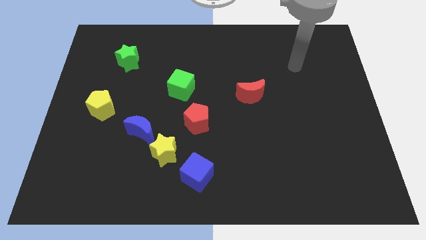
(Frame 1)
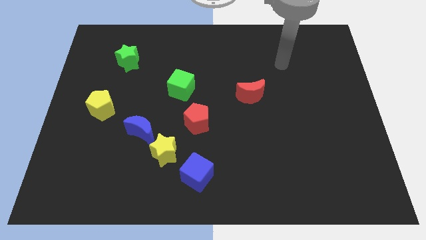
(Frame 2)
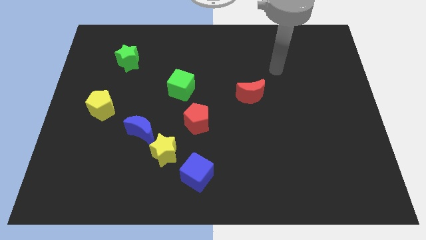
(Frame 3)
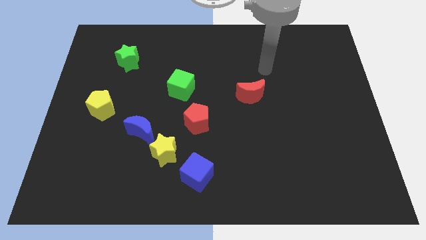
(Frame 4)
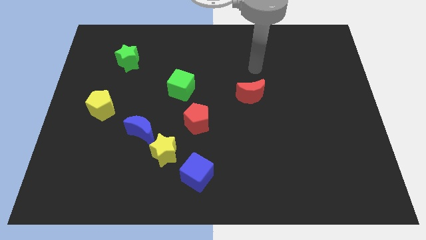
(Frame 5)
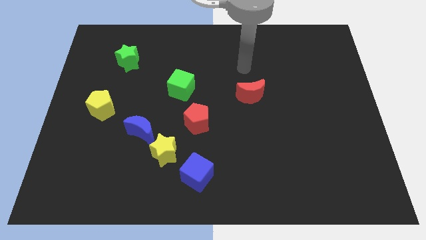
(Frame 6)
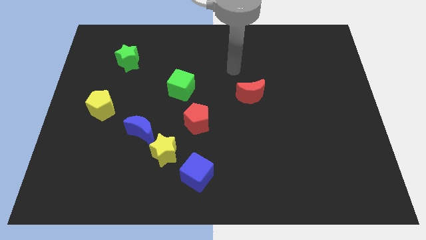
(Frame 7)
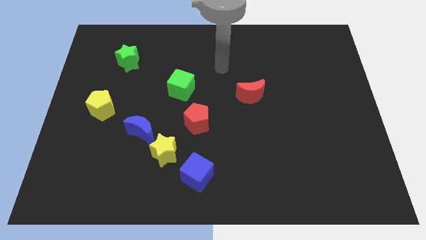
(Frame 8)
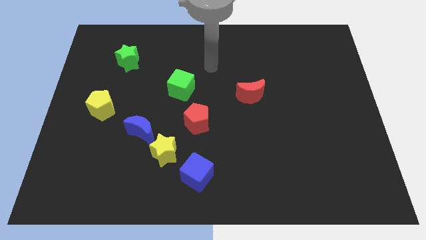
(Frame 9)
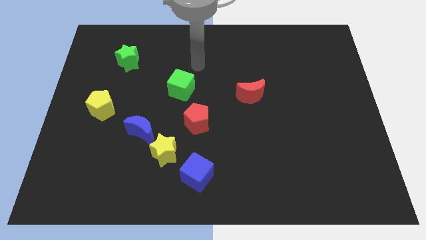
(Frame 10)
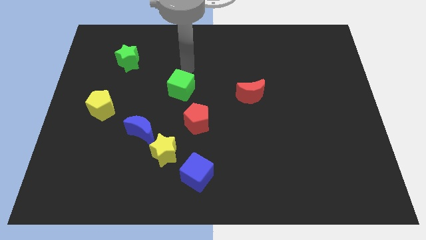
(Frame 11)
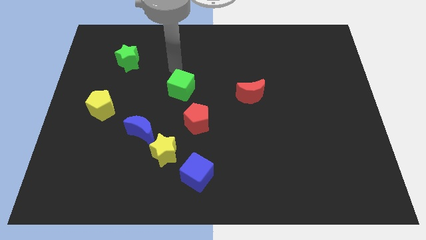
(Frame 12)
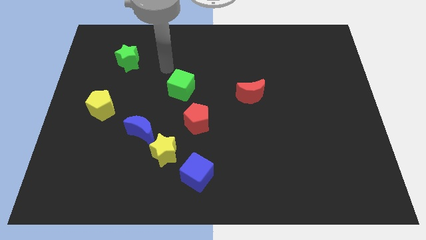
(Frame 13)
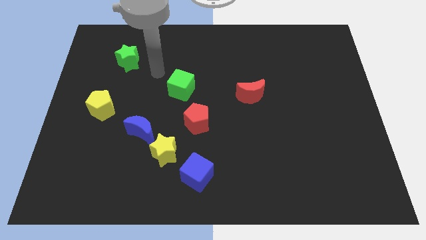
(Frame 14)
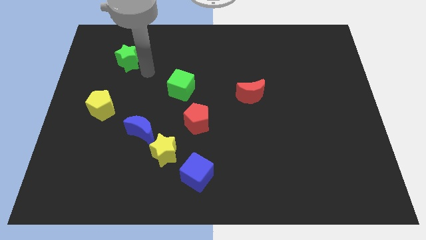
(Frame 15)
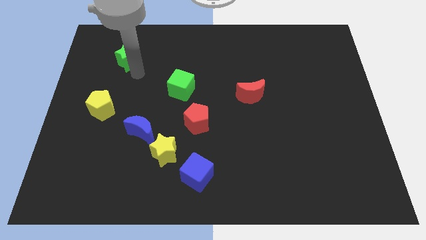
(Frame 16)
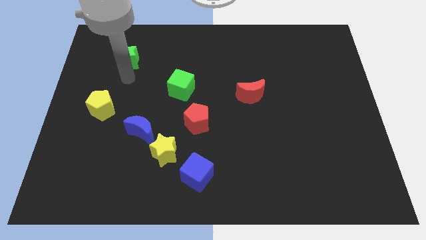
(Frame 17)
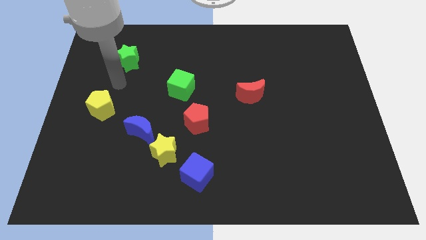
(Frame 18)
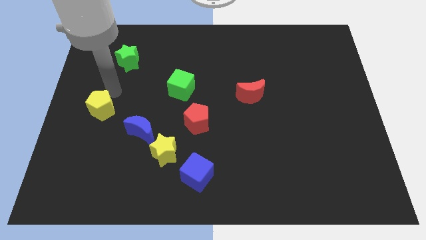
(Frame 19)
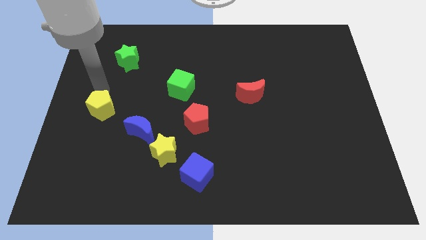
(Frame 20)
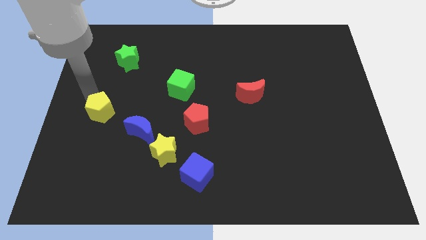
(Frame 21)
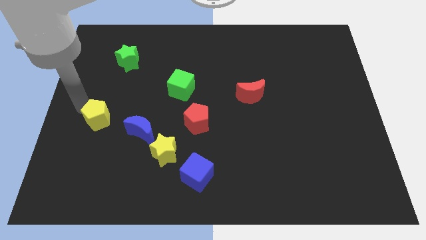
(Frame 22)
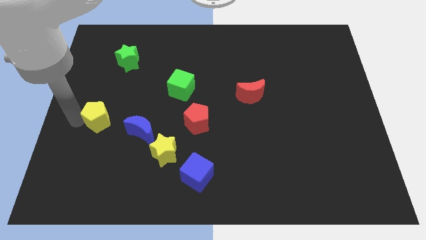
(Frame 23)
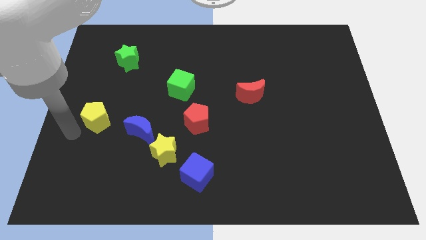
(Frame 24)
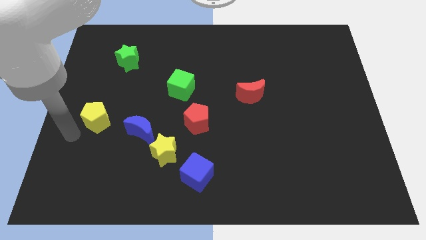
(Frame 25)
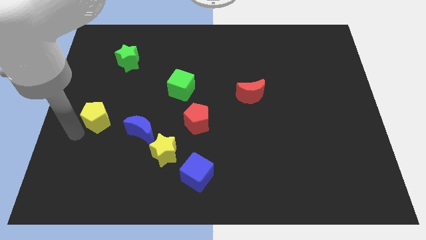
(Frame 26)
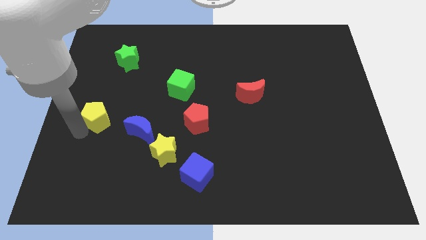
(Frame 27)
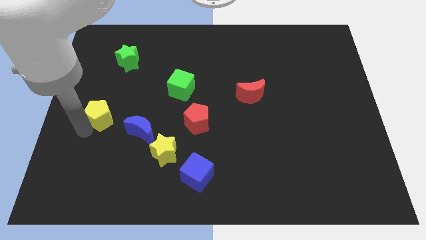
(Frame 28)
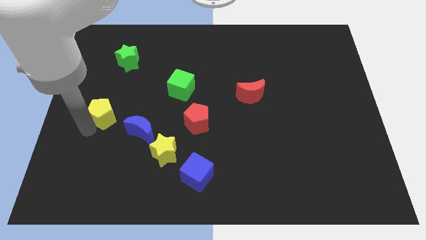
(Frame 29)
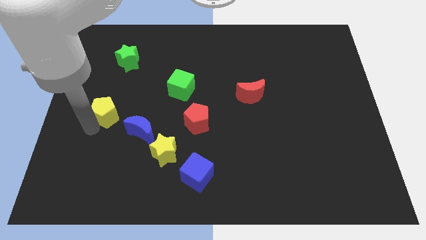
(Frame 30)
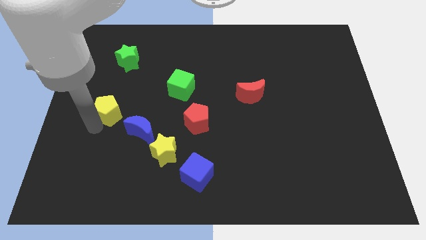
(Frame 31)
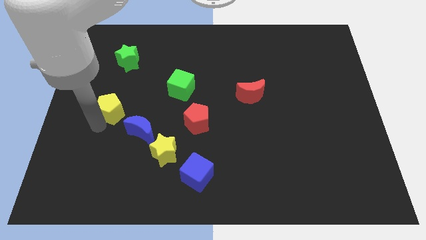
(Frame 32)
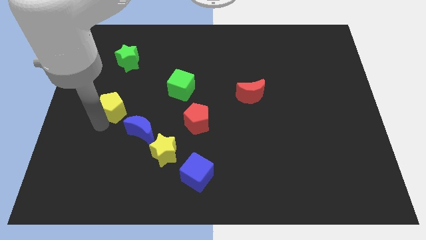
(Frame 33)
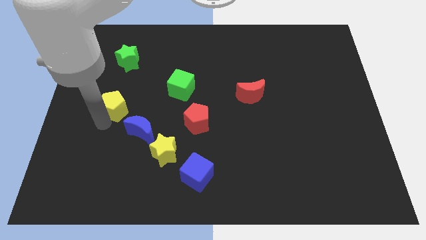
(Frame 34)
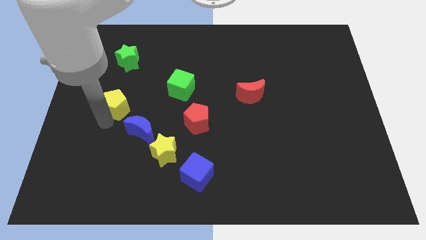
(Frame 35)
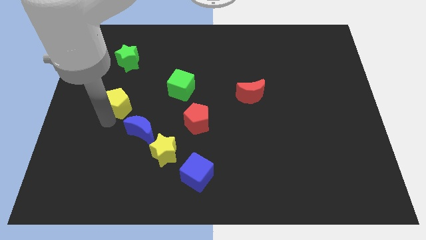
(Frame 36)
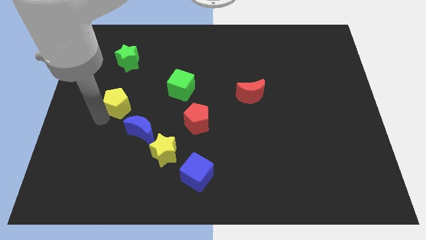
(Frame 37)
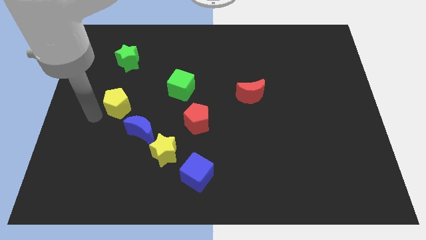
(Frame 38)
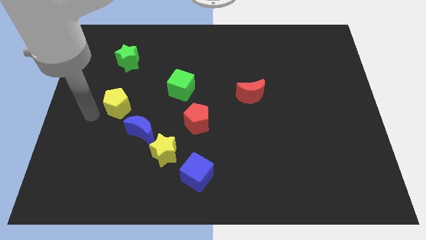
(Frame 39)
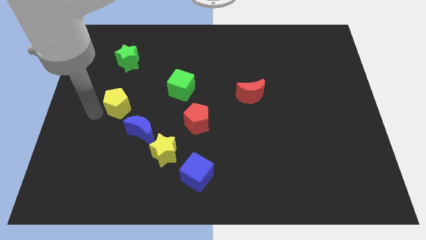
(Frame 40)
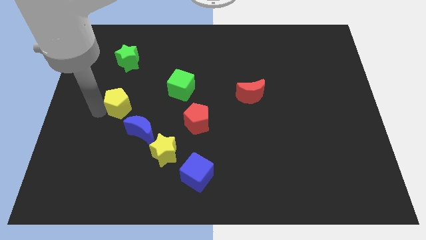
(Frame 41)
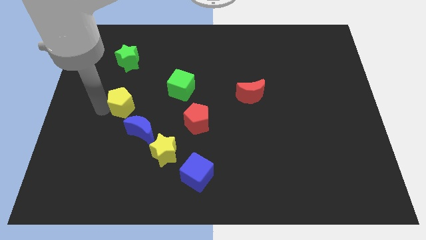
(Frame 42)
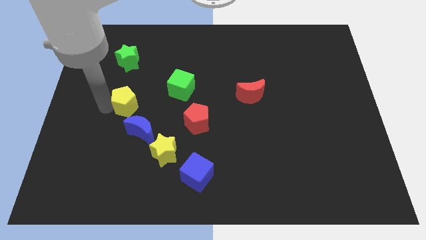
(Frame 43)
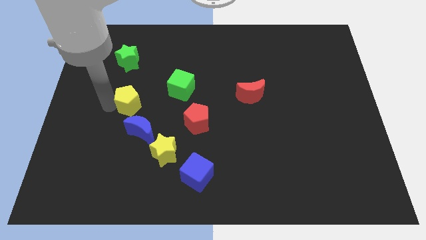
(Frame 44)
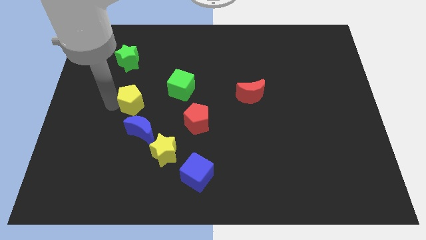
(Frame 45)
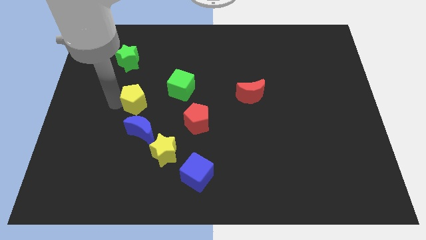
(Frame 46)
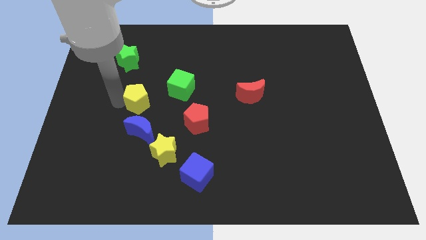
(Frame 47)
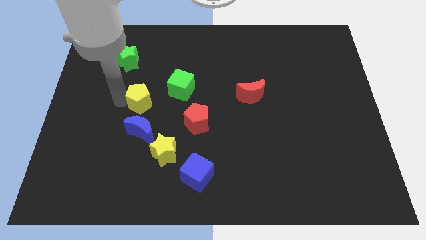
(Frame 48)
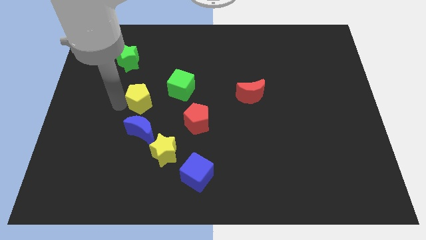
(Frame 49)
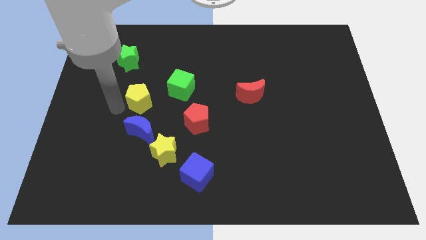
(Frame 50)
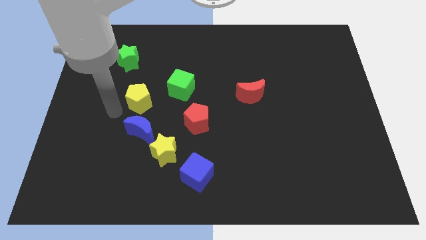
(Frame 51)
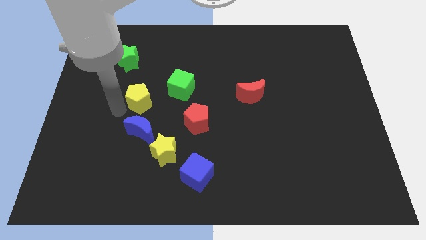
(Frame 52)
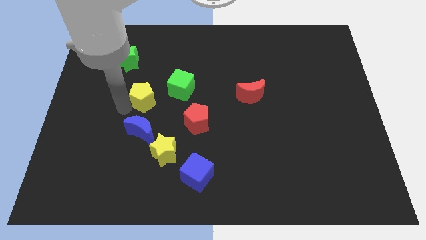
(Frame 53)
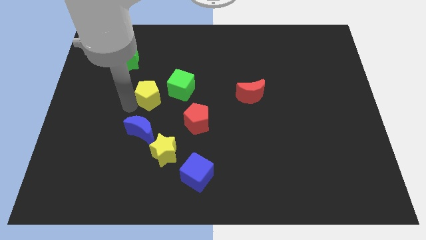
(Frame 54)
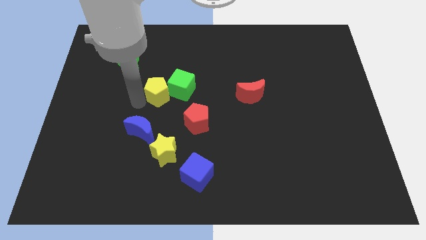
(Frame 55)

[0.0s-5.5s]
move the yellow pentagon towards the green cube

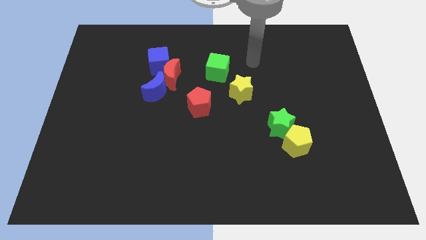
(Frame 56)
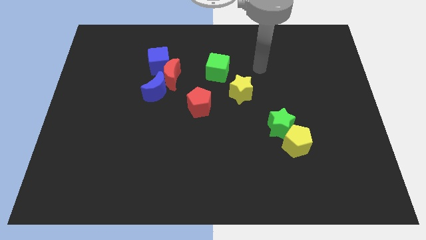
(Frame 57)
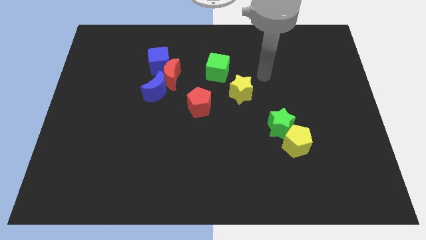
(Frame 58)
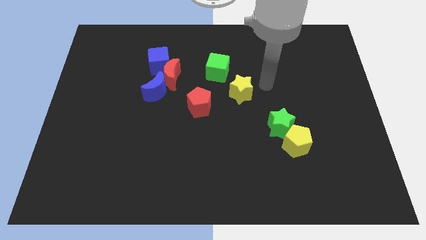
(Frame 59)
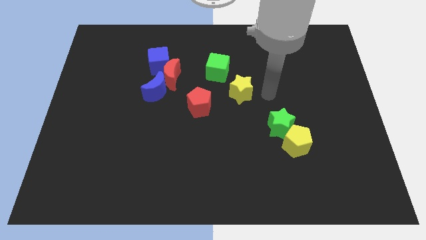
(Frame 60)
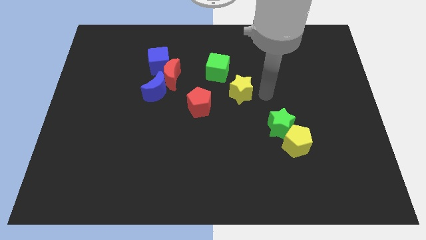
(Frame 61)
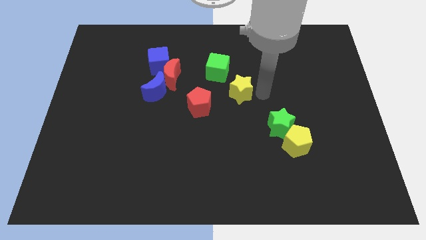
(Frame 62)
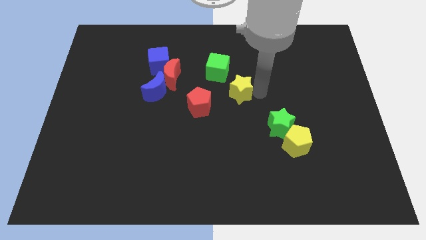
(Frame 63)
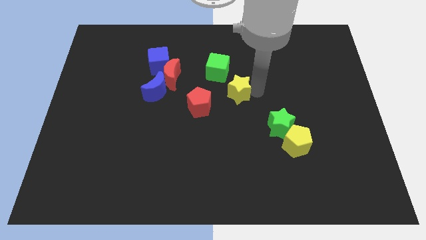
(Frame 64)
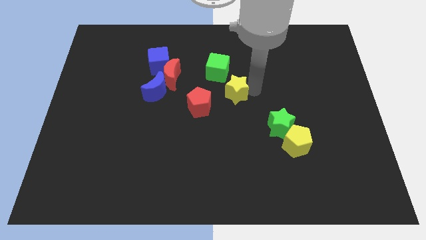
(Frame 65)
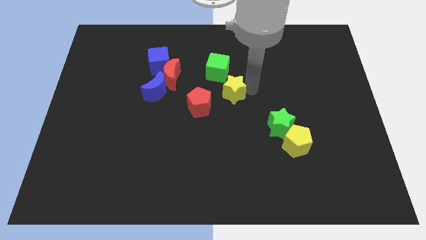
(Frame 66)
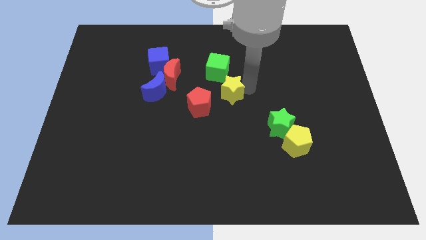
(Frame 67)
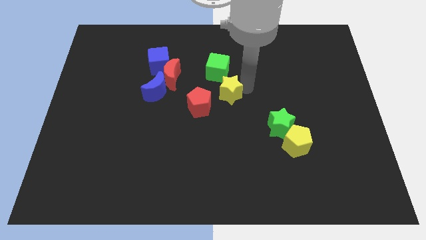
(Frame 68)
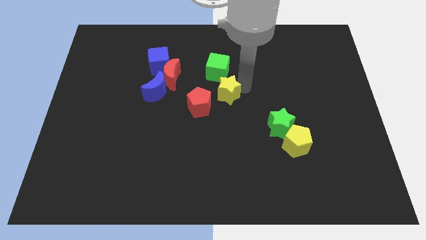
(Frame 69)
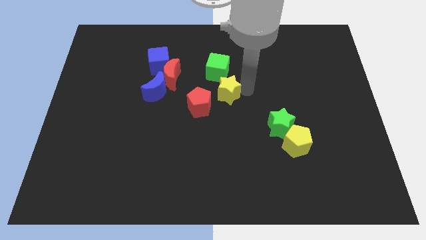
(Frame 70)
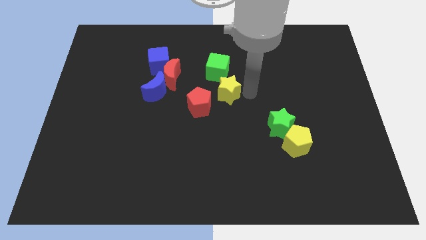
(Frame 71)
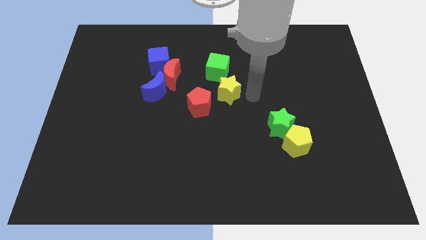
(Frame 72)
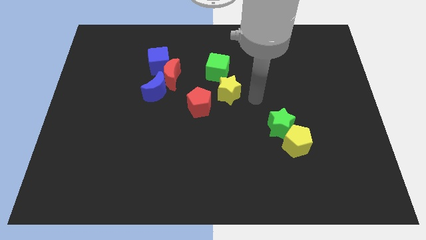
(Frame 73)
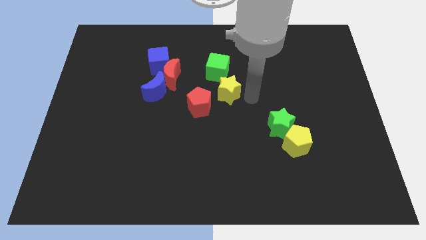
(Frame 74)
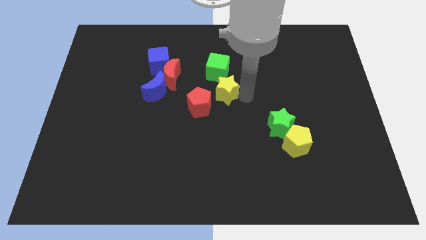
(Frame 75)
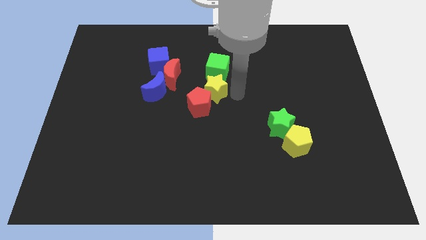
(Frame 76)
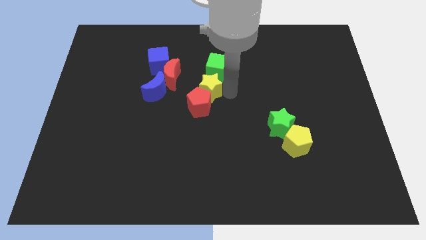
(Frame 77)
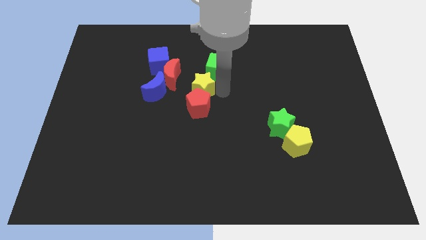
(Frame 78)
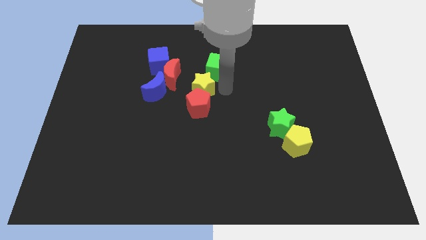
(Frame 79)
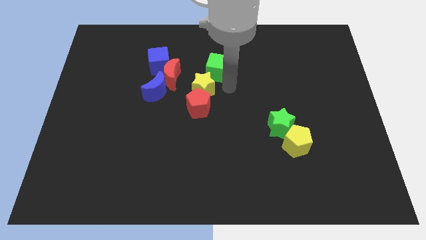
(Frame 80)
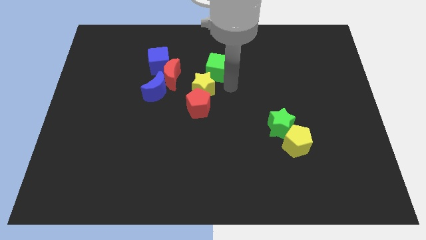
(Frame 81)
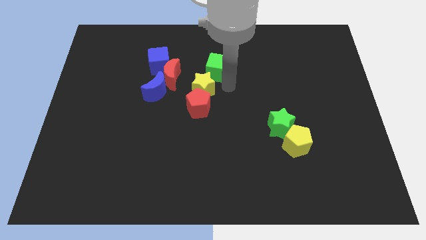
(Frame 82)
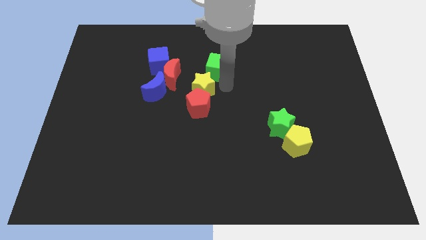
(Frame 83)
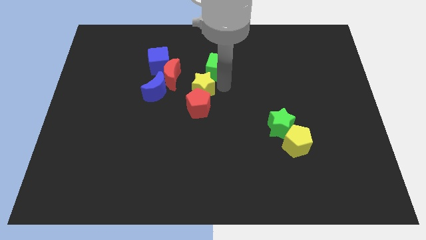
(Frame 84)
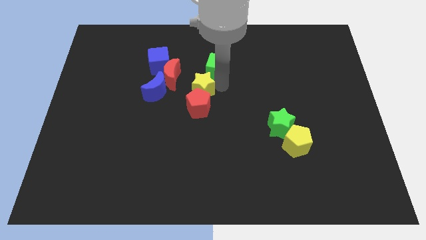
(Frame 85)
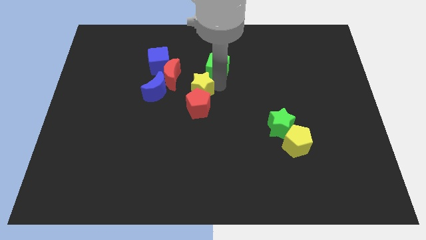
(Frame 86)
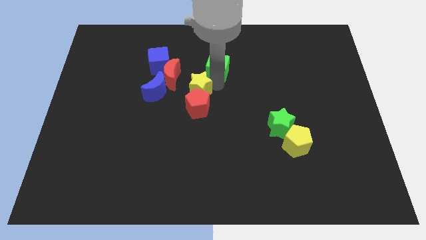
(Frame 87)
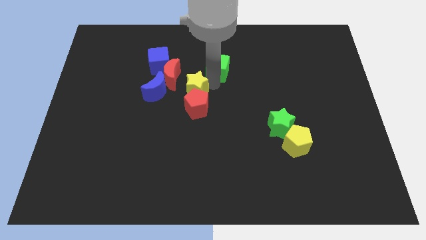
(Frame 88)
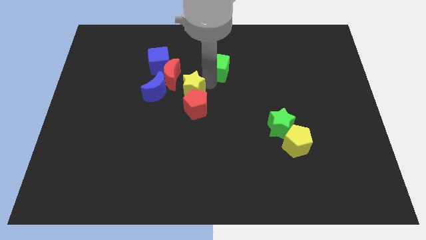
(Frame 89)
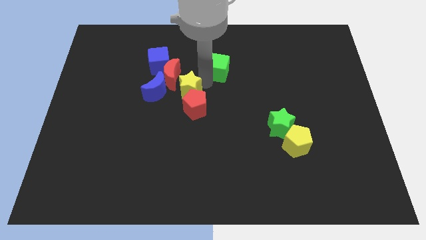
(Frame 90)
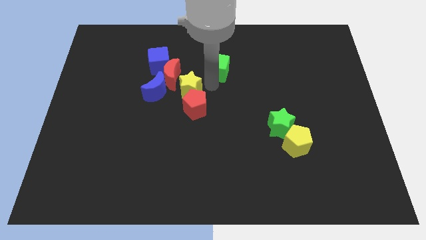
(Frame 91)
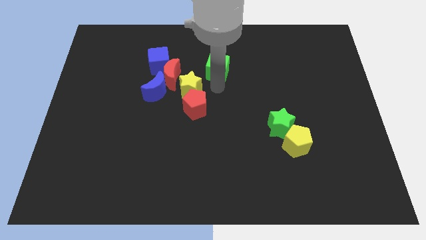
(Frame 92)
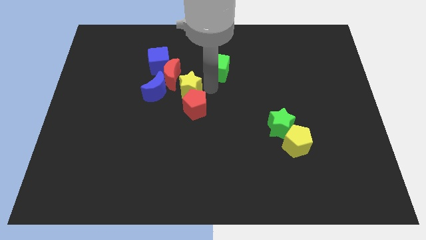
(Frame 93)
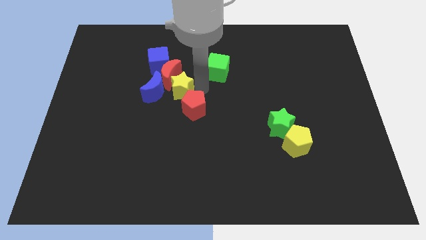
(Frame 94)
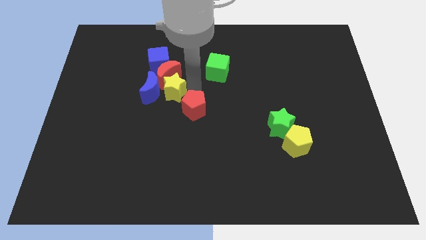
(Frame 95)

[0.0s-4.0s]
move the yellow star to the blue moon
